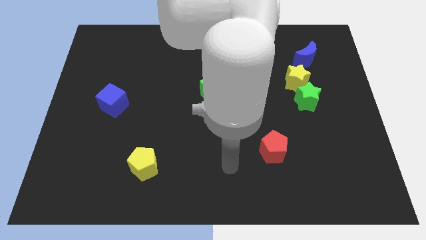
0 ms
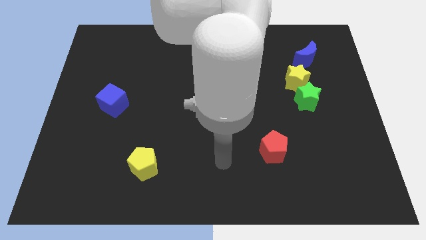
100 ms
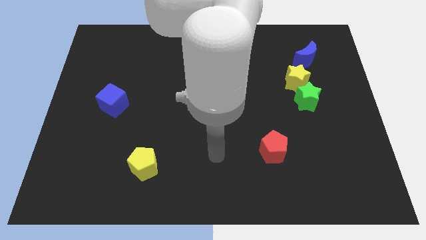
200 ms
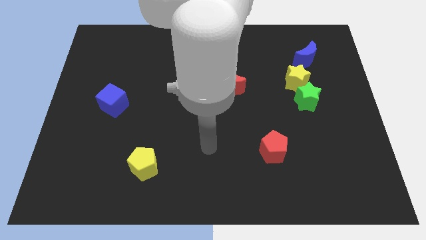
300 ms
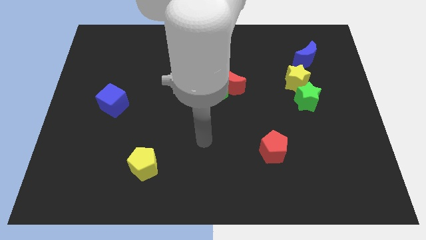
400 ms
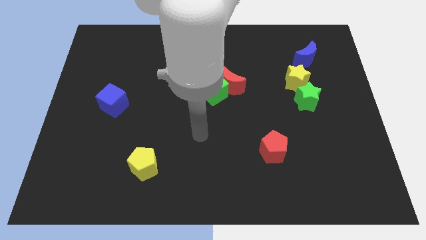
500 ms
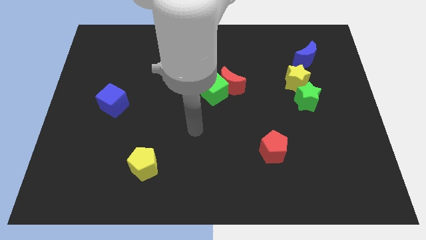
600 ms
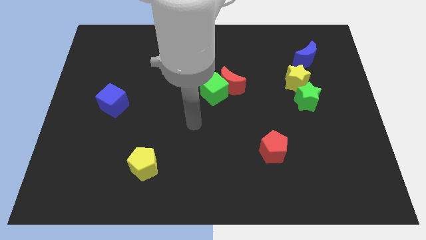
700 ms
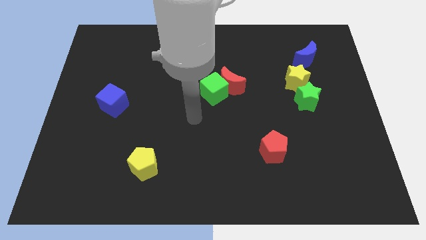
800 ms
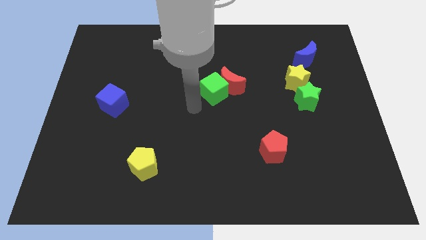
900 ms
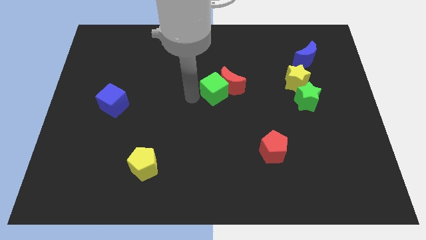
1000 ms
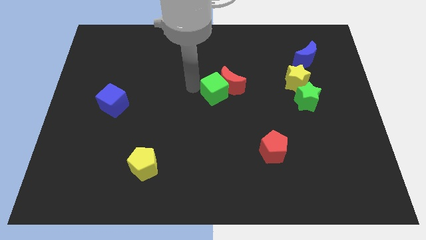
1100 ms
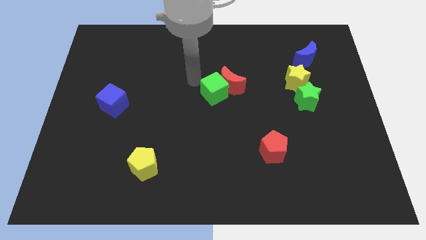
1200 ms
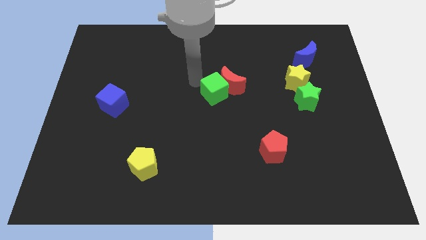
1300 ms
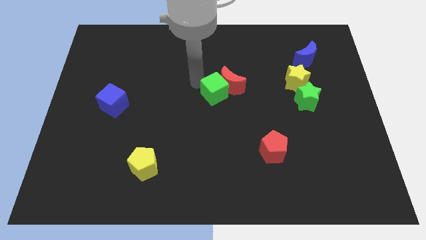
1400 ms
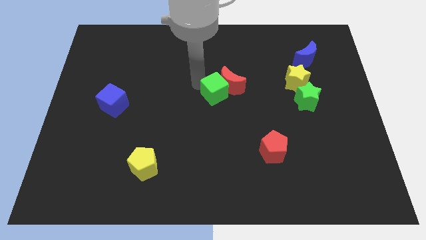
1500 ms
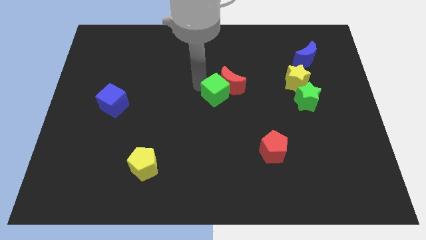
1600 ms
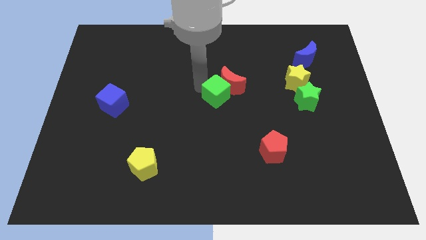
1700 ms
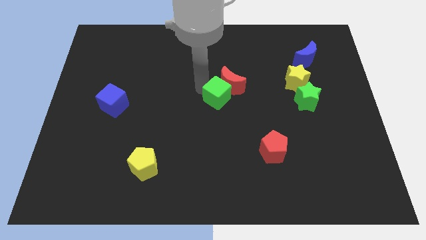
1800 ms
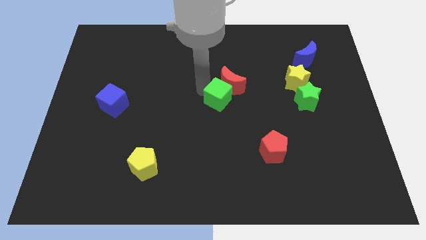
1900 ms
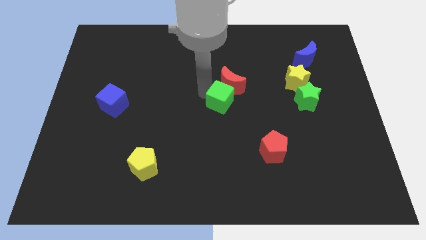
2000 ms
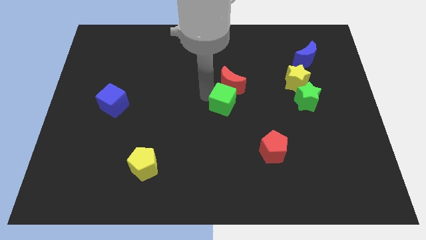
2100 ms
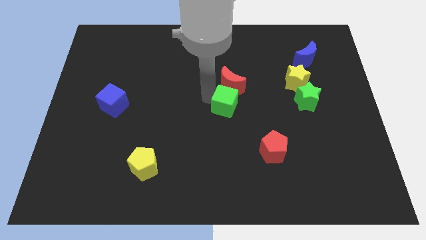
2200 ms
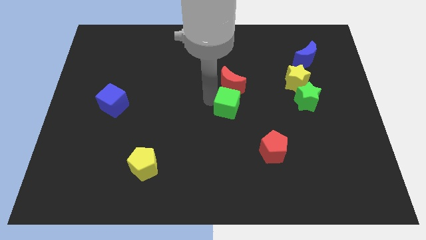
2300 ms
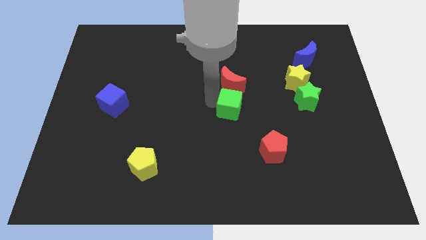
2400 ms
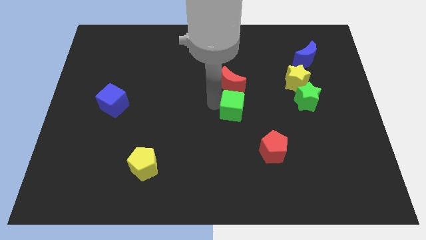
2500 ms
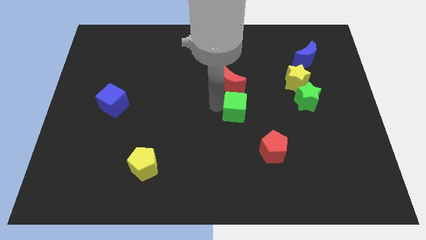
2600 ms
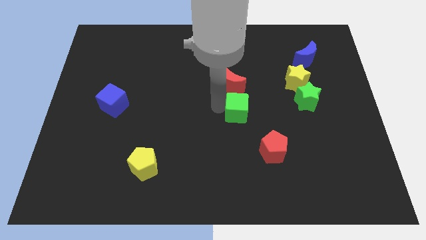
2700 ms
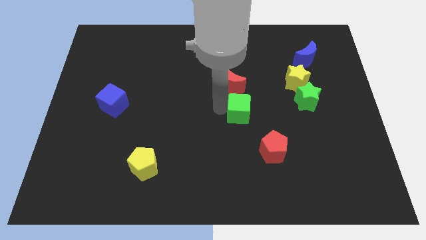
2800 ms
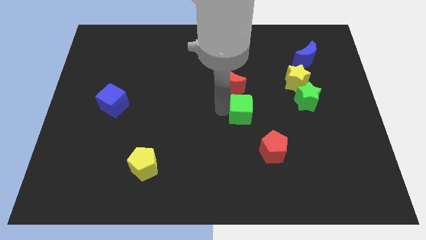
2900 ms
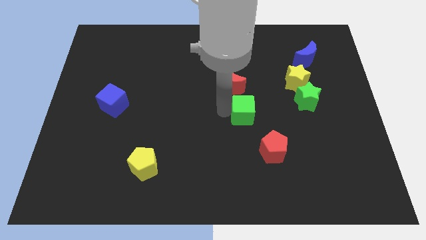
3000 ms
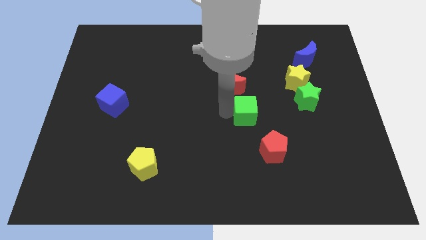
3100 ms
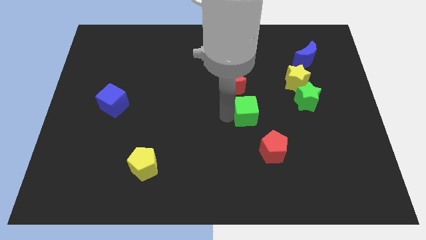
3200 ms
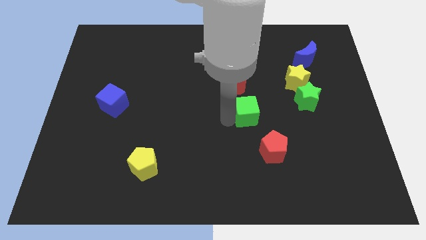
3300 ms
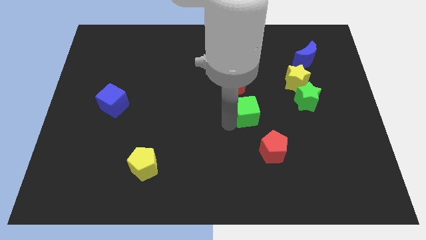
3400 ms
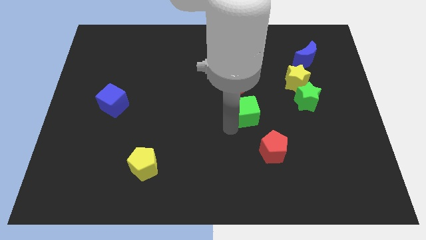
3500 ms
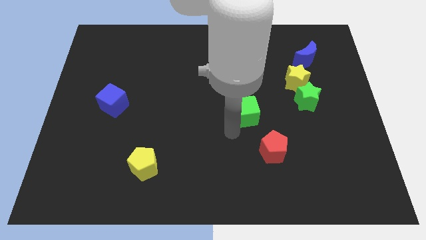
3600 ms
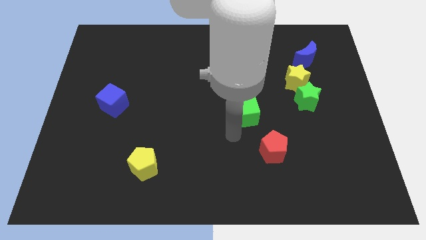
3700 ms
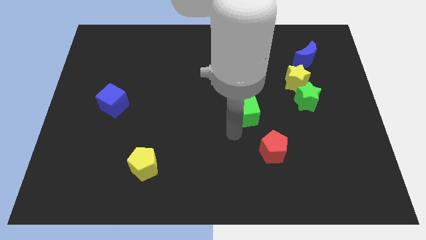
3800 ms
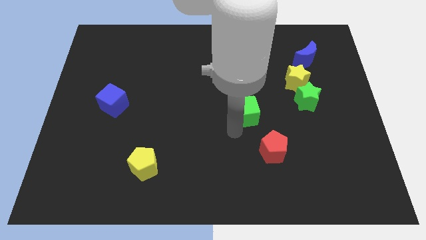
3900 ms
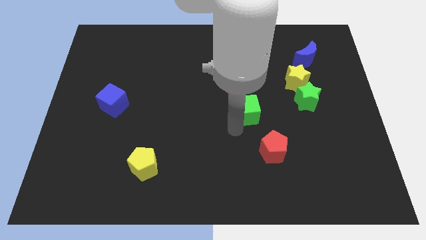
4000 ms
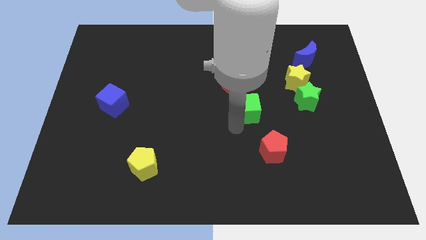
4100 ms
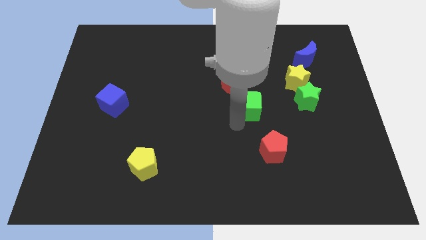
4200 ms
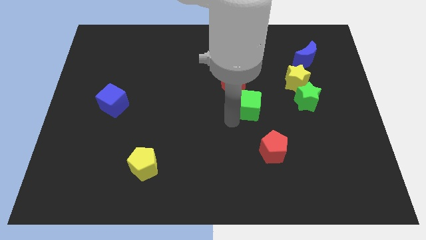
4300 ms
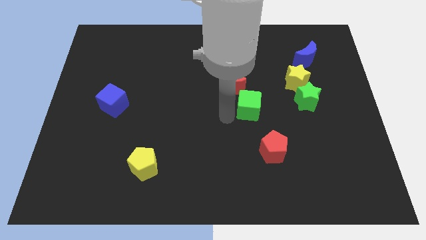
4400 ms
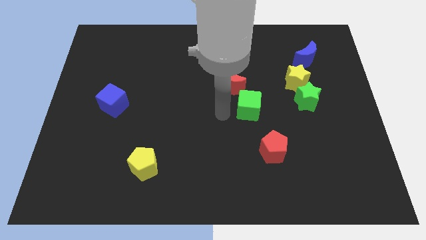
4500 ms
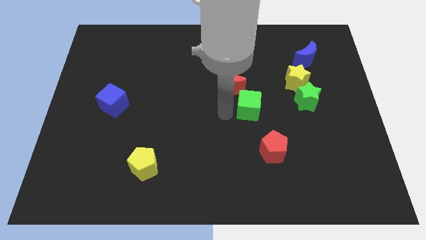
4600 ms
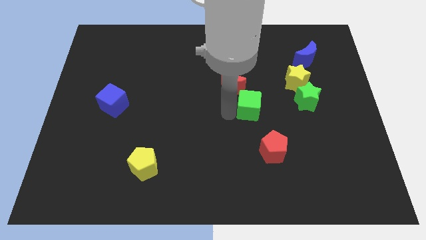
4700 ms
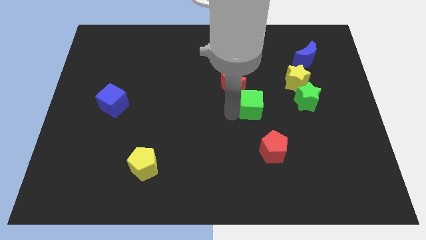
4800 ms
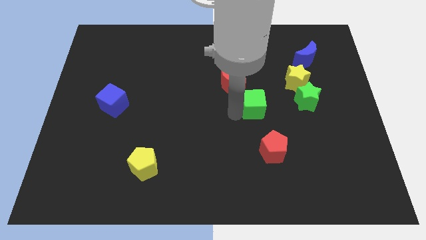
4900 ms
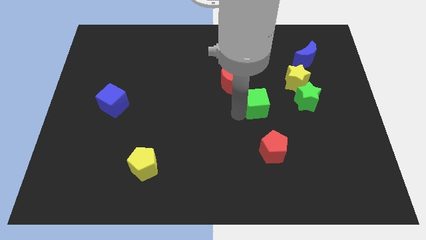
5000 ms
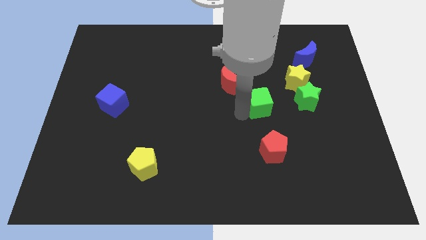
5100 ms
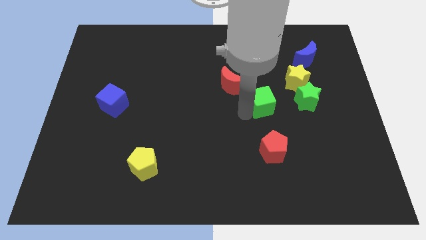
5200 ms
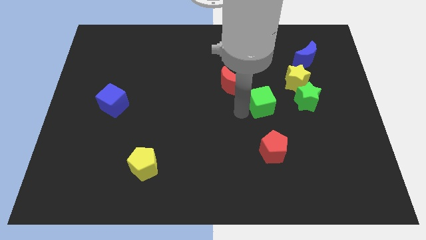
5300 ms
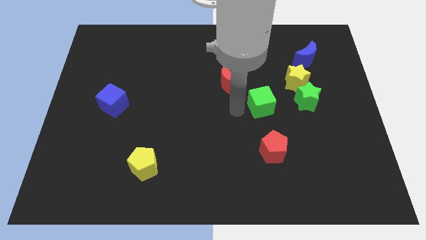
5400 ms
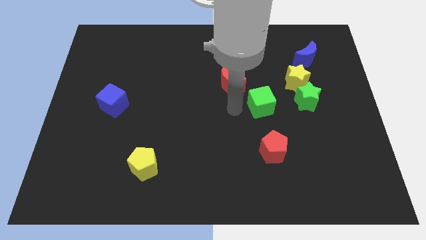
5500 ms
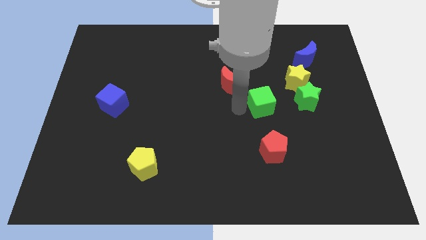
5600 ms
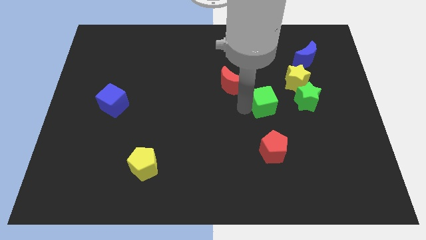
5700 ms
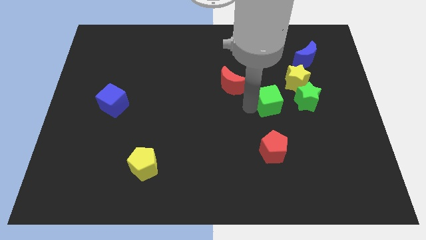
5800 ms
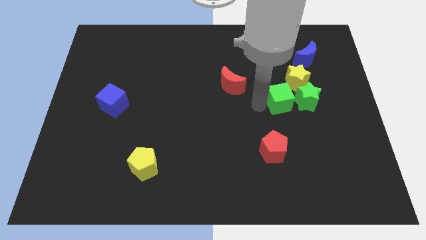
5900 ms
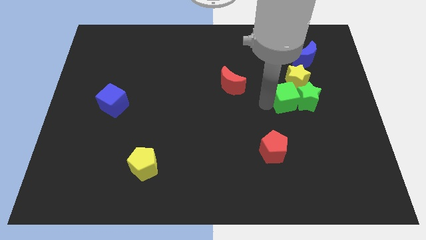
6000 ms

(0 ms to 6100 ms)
move the green cube close to the green star

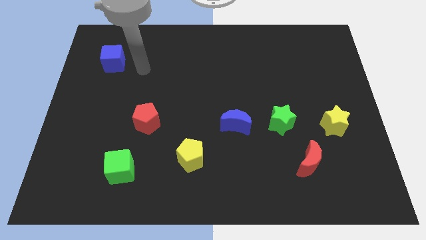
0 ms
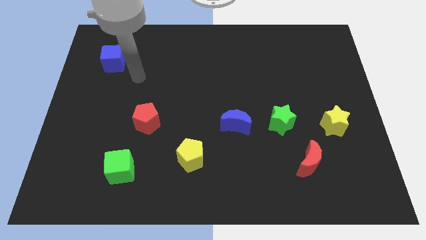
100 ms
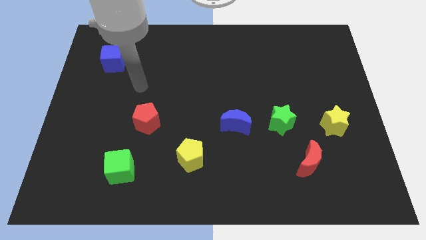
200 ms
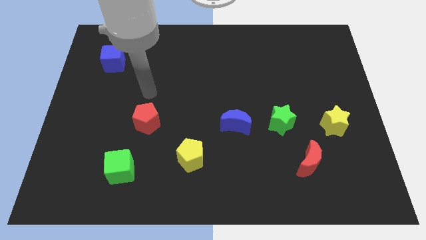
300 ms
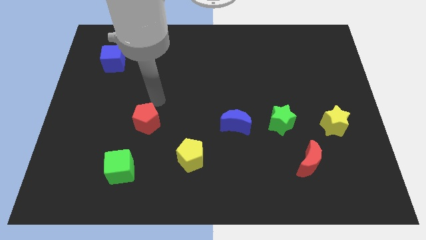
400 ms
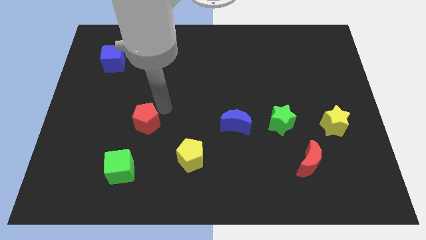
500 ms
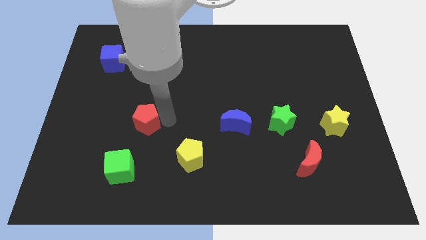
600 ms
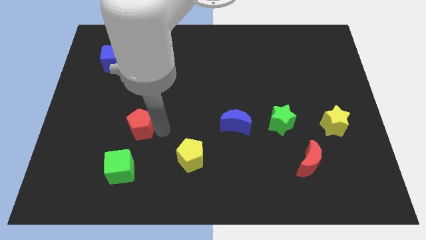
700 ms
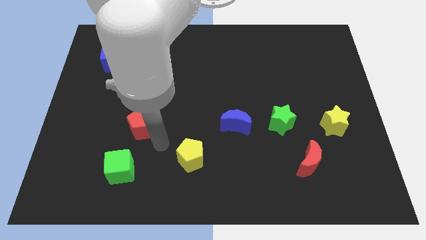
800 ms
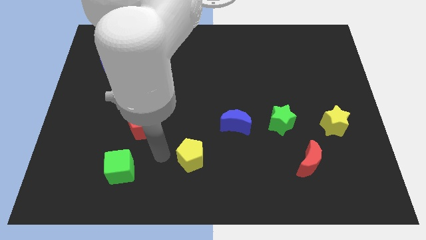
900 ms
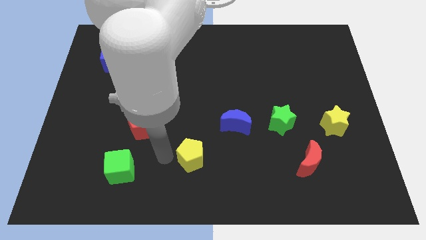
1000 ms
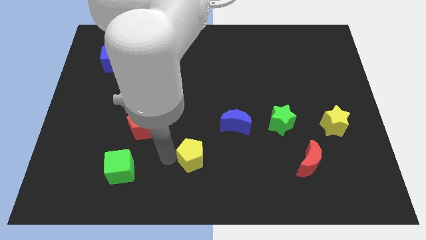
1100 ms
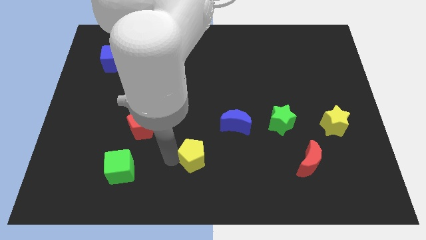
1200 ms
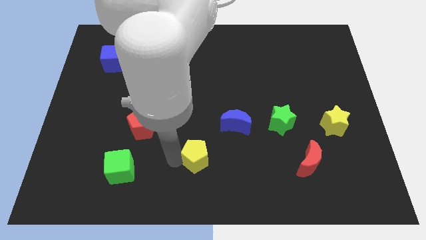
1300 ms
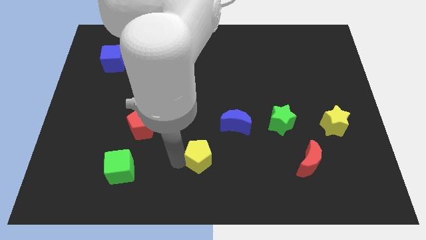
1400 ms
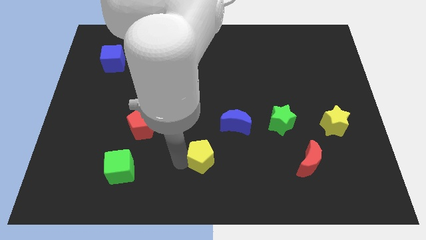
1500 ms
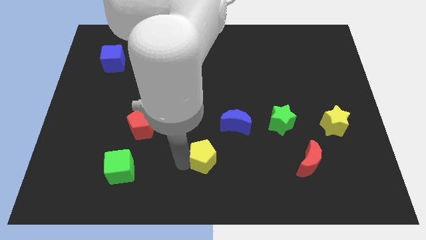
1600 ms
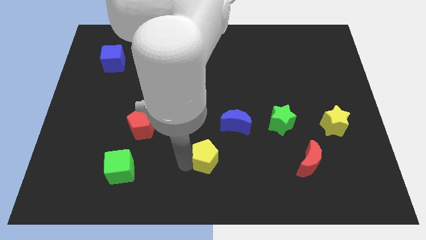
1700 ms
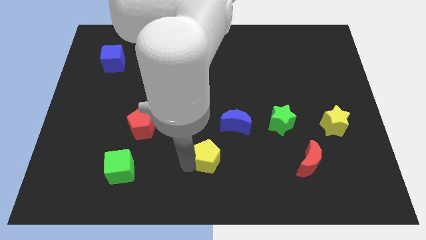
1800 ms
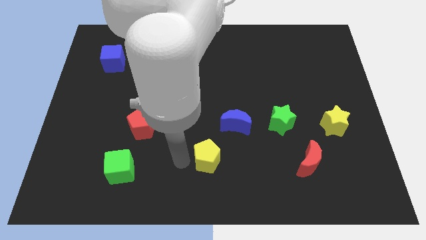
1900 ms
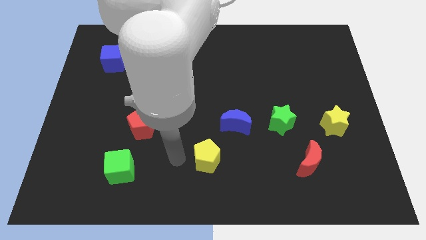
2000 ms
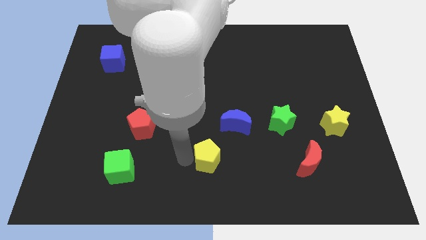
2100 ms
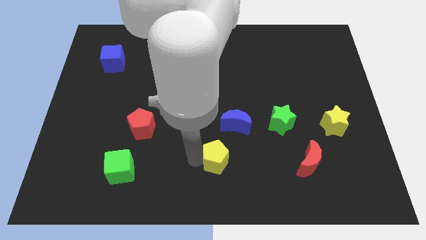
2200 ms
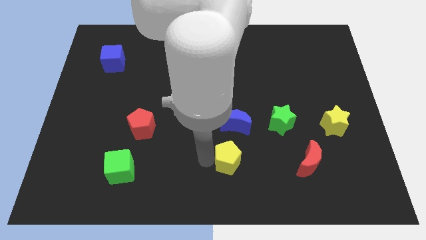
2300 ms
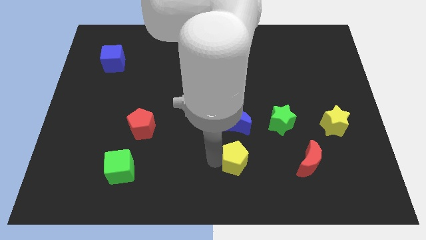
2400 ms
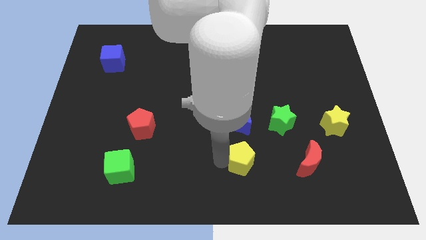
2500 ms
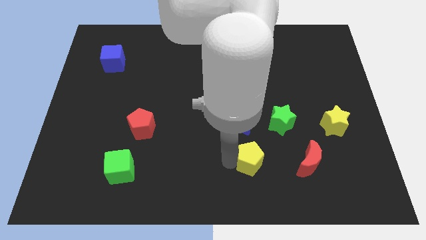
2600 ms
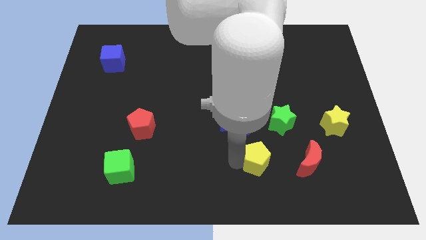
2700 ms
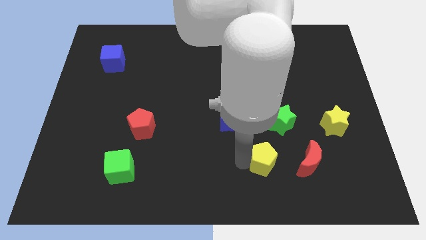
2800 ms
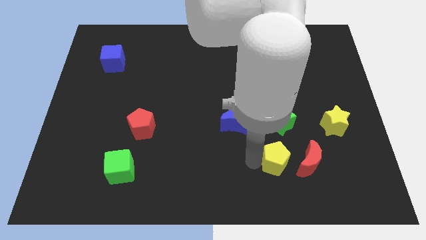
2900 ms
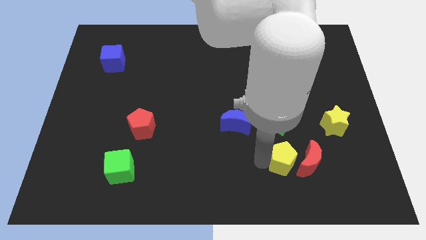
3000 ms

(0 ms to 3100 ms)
move the yellow pentagon to the red moon
